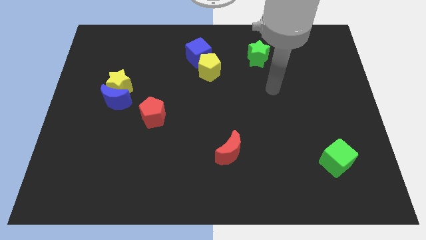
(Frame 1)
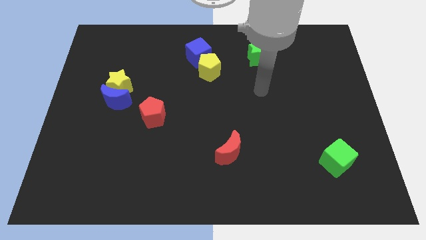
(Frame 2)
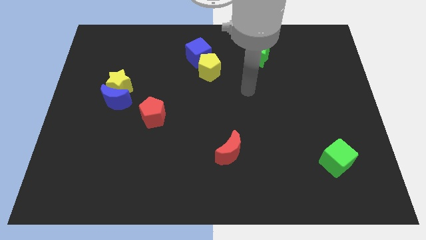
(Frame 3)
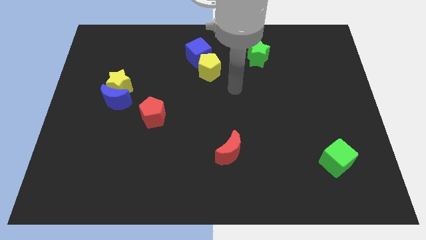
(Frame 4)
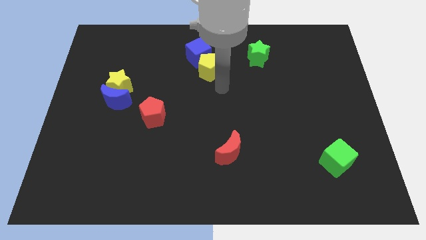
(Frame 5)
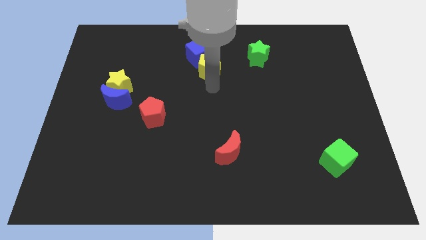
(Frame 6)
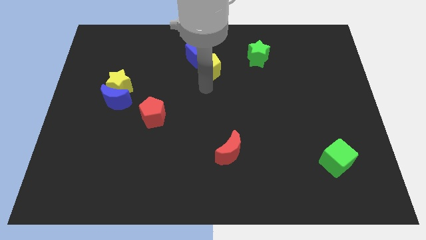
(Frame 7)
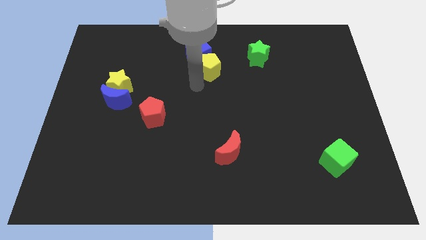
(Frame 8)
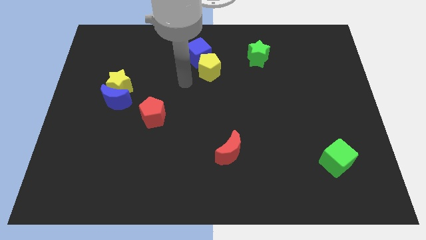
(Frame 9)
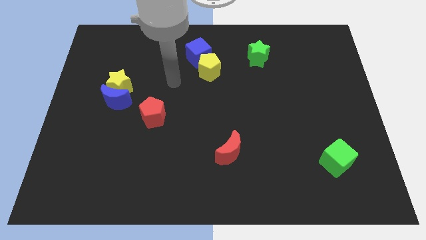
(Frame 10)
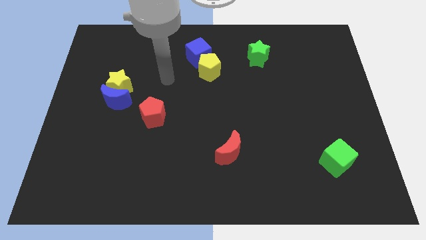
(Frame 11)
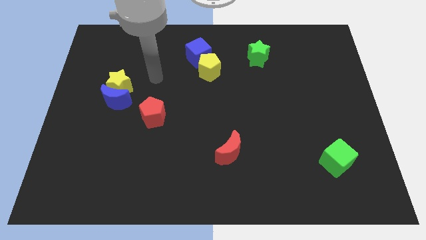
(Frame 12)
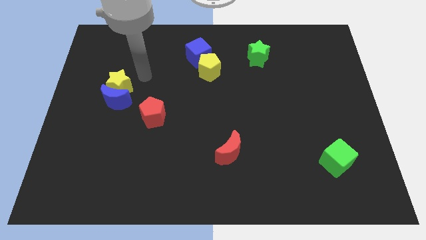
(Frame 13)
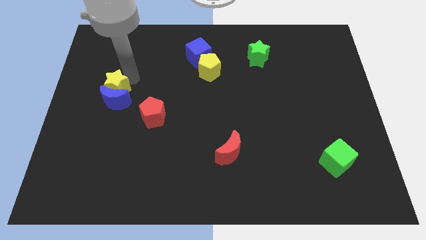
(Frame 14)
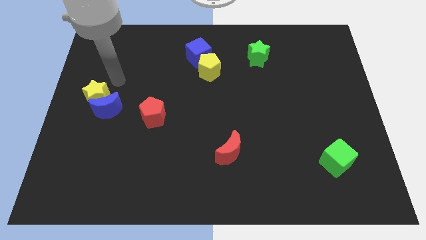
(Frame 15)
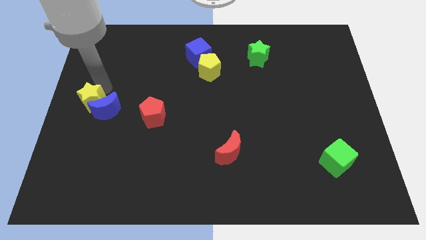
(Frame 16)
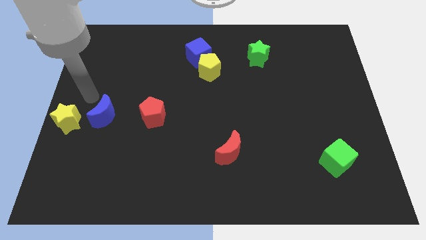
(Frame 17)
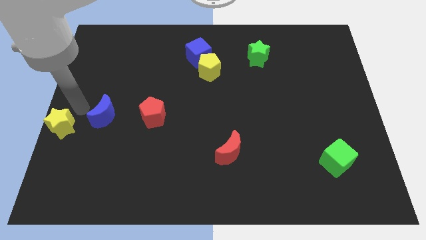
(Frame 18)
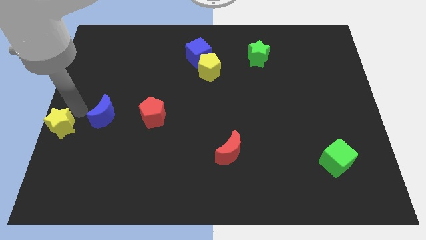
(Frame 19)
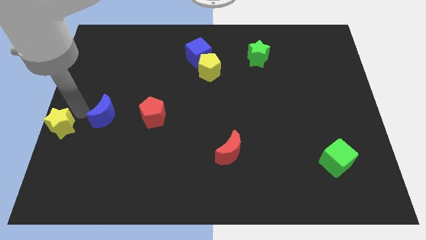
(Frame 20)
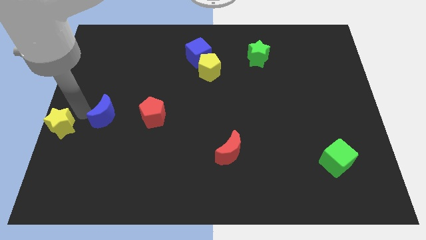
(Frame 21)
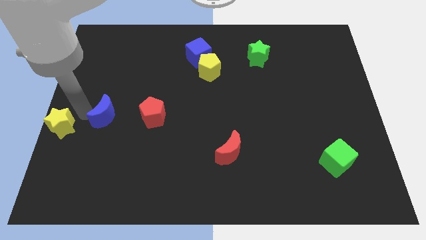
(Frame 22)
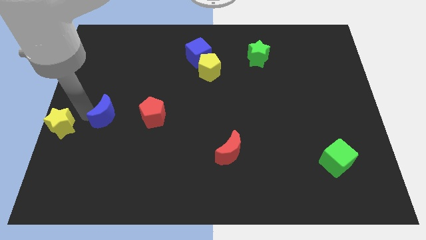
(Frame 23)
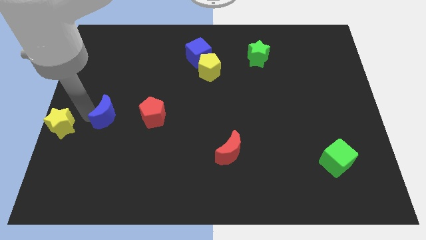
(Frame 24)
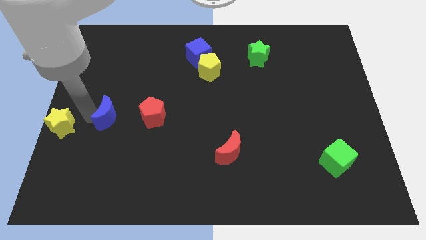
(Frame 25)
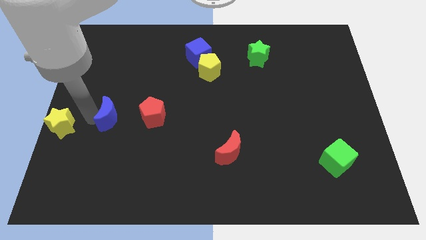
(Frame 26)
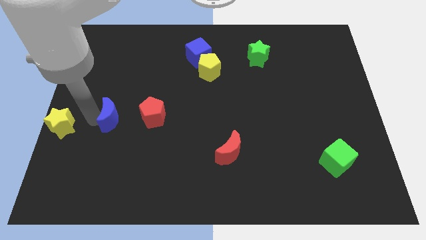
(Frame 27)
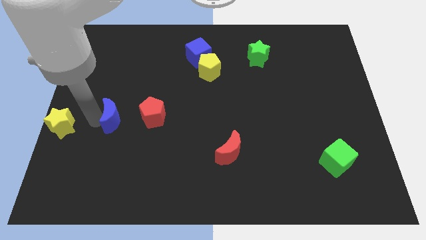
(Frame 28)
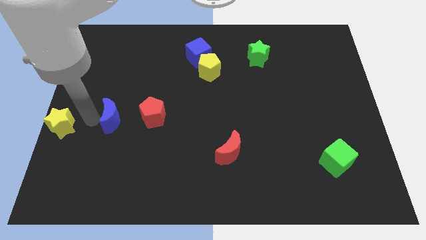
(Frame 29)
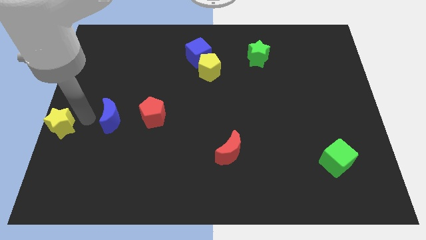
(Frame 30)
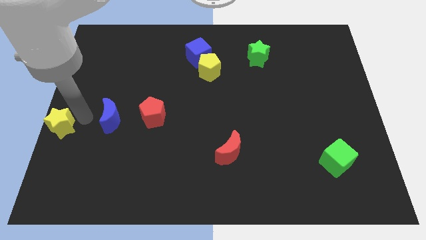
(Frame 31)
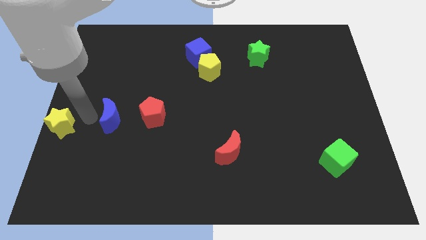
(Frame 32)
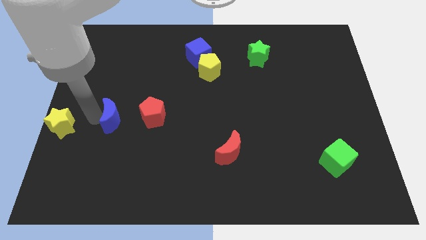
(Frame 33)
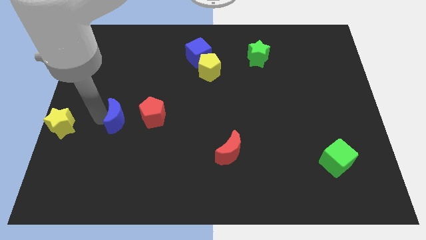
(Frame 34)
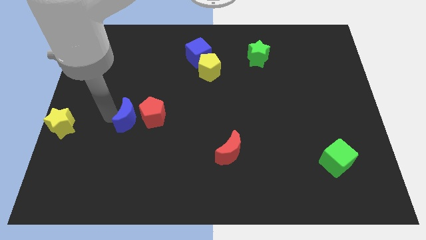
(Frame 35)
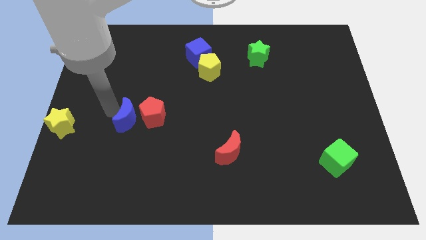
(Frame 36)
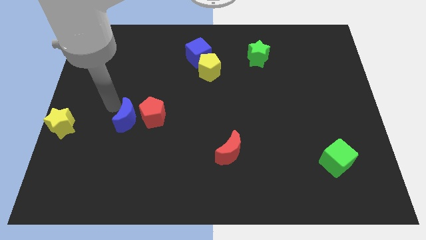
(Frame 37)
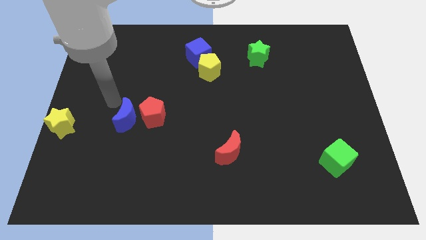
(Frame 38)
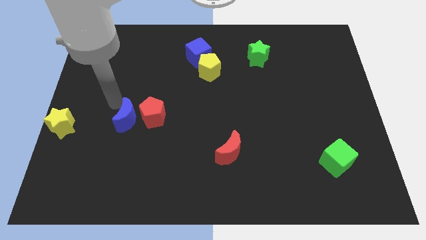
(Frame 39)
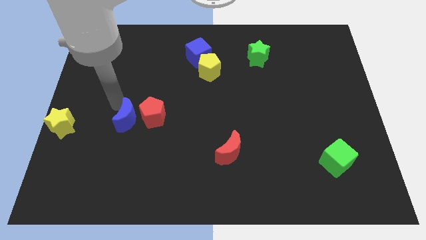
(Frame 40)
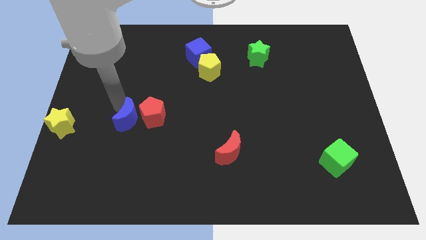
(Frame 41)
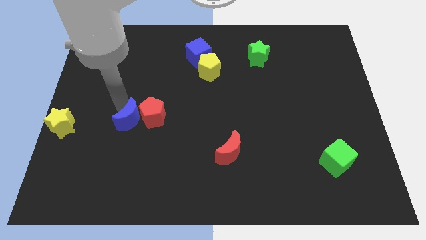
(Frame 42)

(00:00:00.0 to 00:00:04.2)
slightly slide the blue moon downwards and to the right diagonally

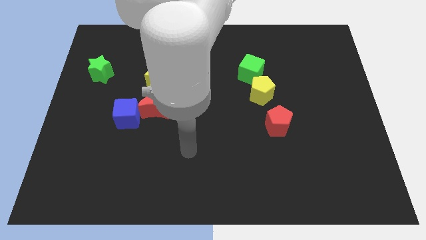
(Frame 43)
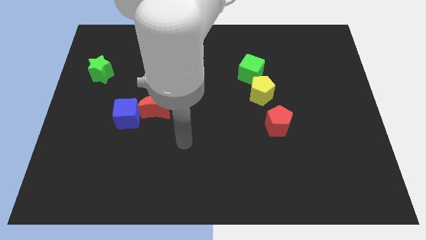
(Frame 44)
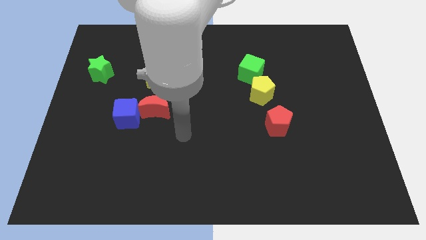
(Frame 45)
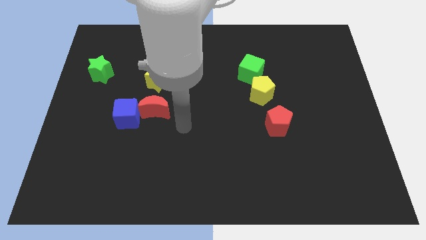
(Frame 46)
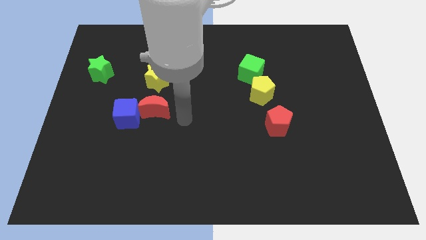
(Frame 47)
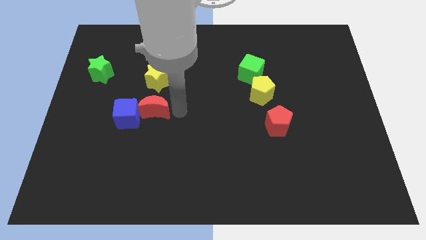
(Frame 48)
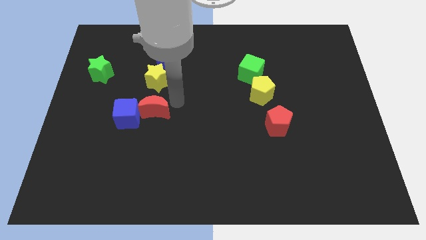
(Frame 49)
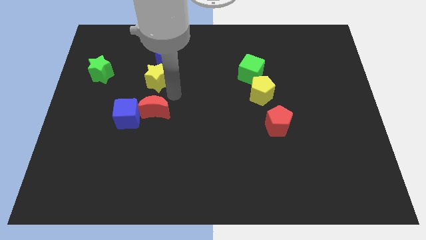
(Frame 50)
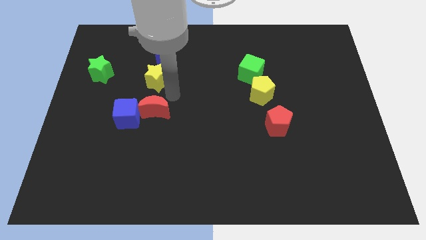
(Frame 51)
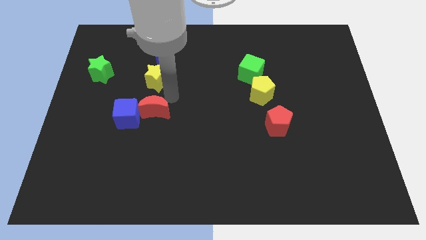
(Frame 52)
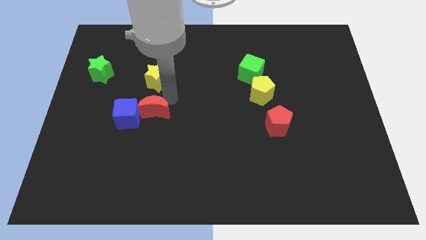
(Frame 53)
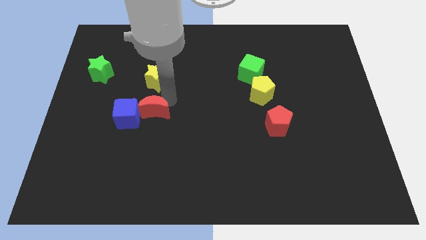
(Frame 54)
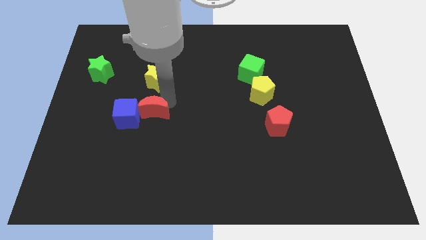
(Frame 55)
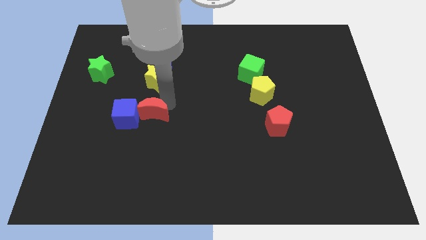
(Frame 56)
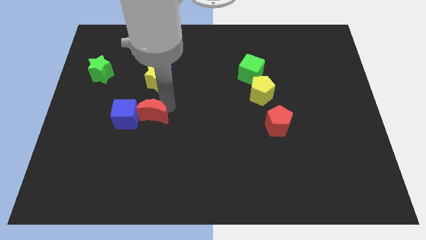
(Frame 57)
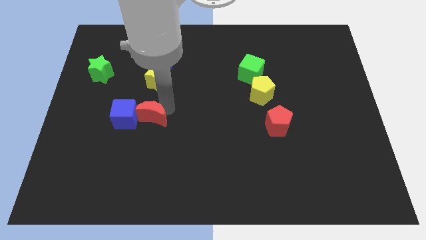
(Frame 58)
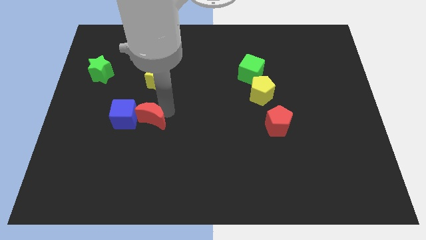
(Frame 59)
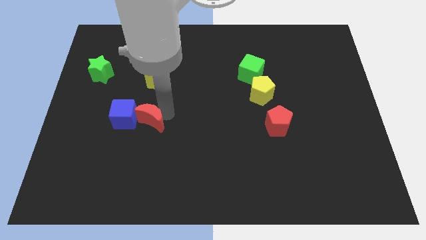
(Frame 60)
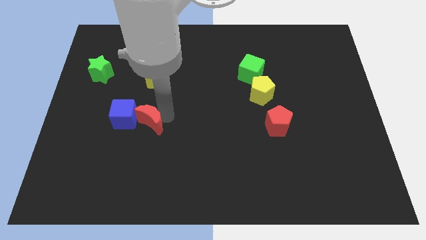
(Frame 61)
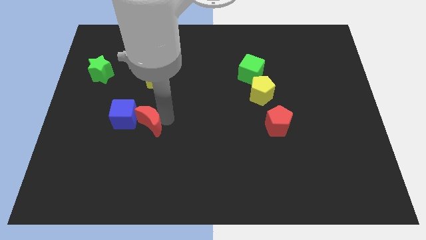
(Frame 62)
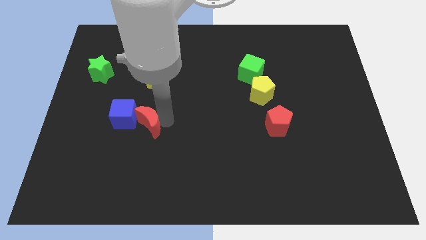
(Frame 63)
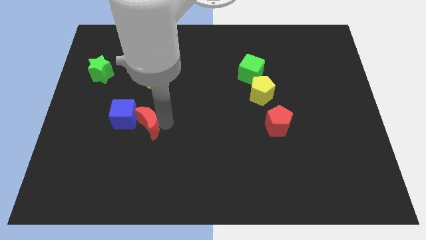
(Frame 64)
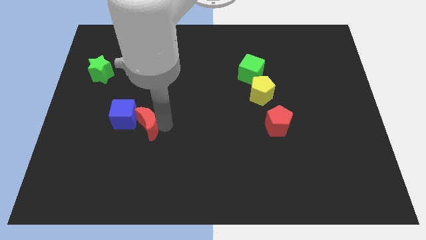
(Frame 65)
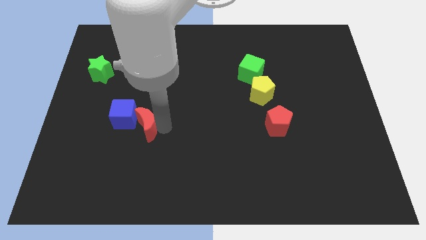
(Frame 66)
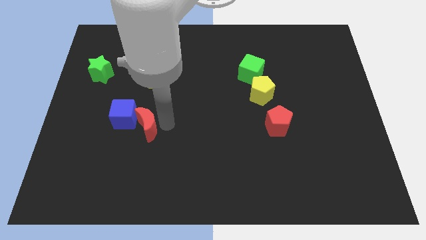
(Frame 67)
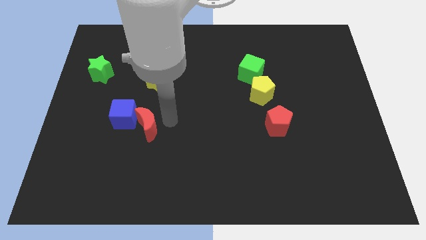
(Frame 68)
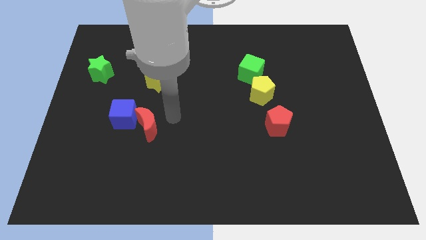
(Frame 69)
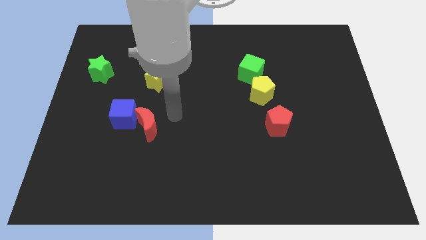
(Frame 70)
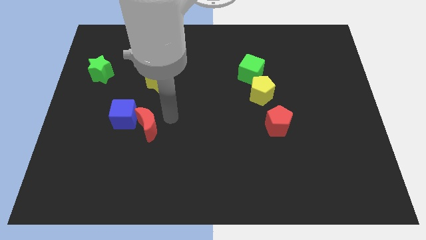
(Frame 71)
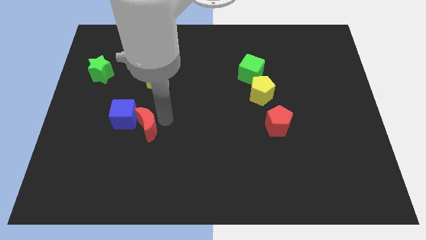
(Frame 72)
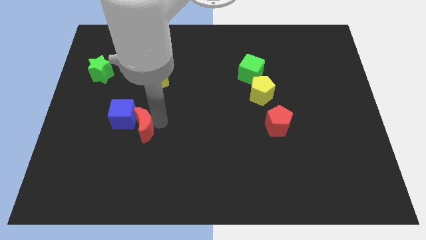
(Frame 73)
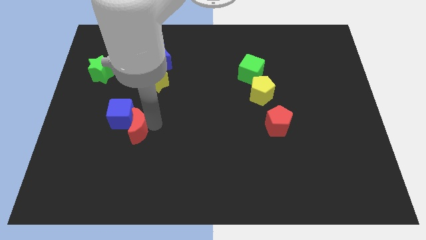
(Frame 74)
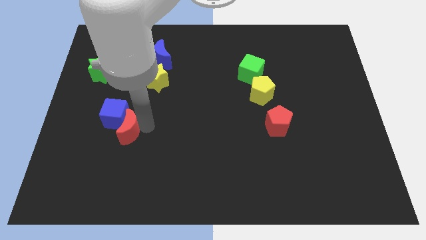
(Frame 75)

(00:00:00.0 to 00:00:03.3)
slide the red moon a bit down and to the left diagonally

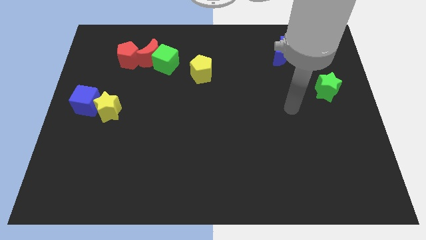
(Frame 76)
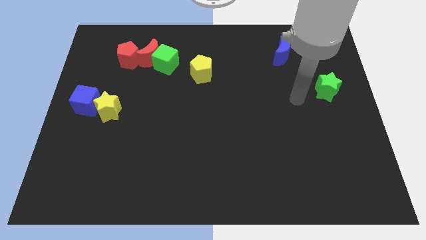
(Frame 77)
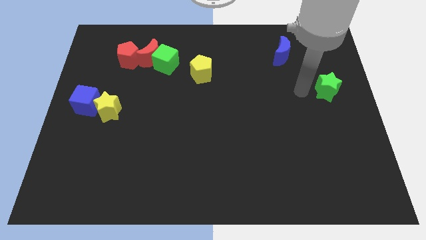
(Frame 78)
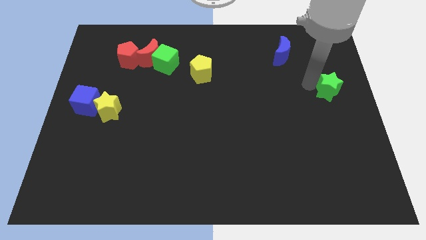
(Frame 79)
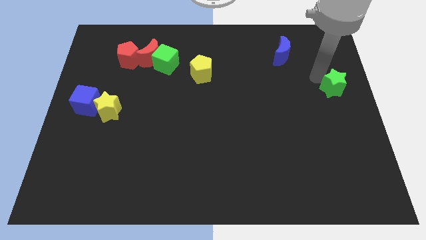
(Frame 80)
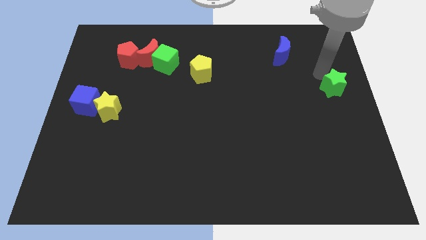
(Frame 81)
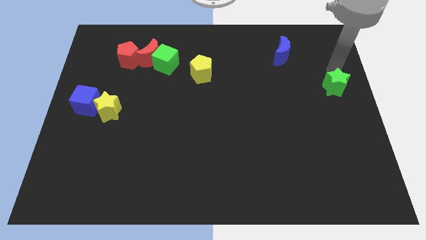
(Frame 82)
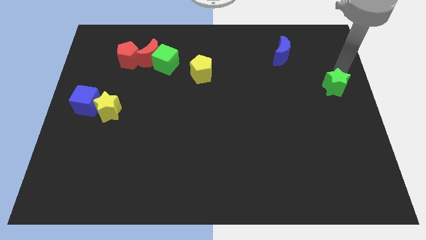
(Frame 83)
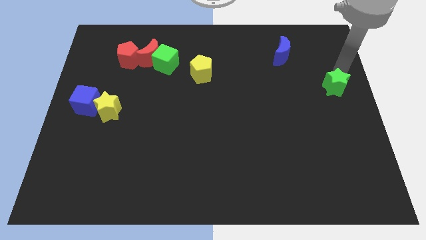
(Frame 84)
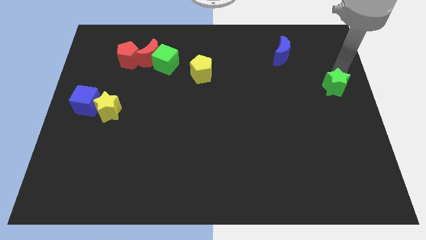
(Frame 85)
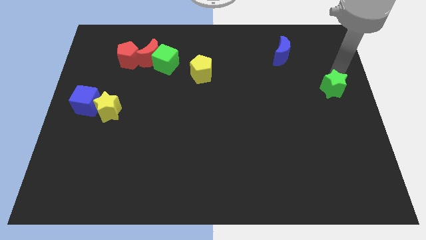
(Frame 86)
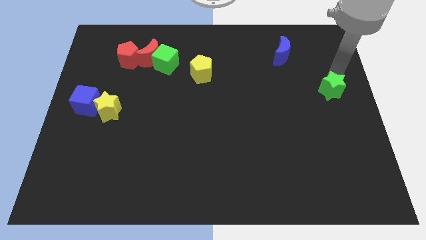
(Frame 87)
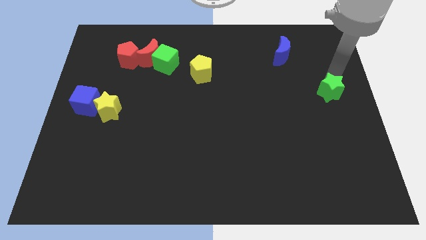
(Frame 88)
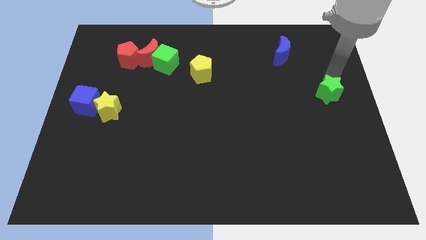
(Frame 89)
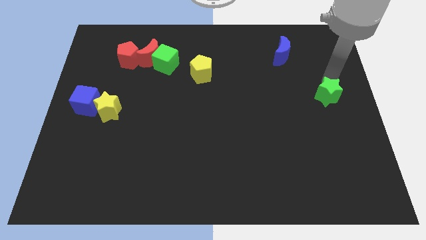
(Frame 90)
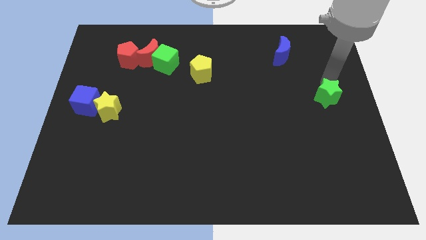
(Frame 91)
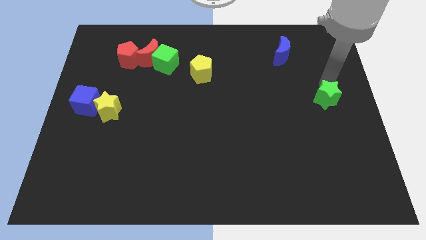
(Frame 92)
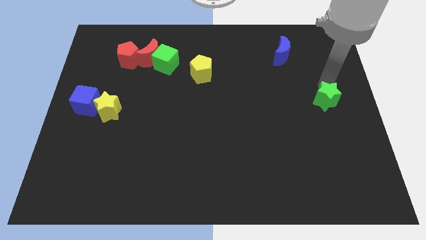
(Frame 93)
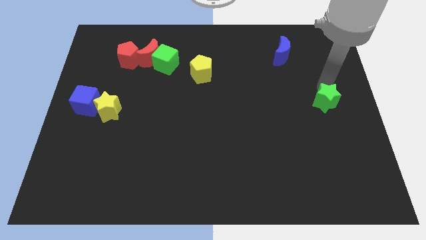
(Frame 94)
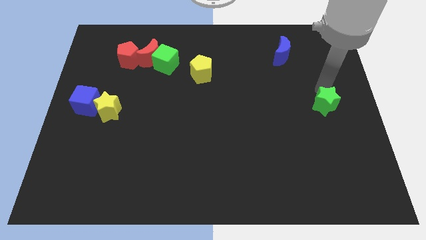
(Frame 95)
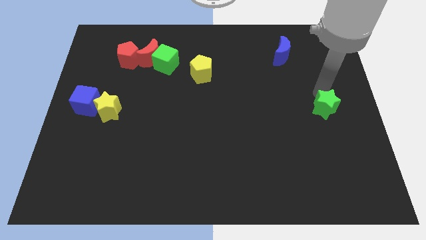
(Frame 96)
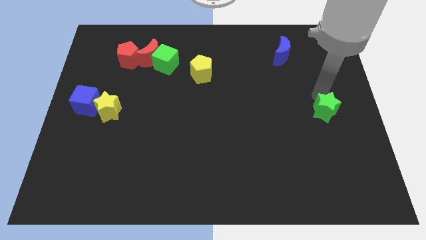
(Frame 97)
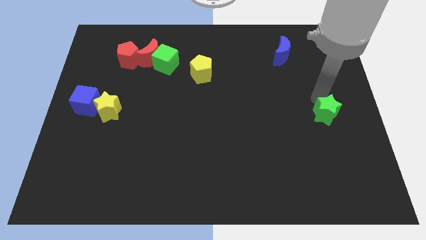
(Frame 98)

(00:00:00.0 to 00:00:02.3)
move the green star a bit downwards
